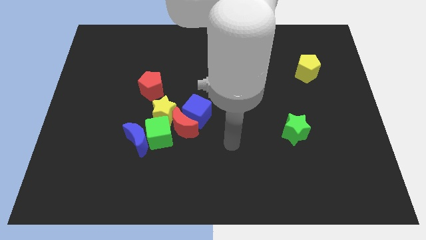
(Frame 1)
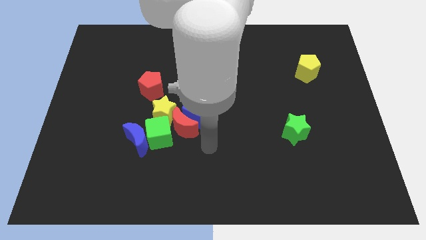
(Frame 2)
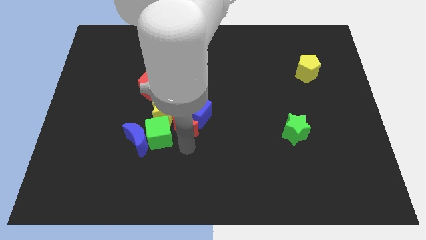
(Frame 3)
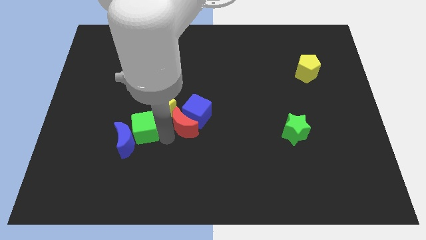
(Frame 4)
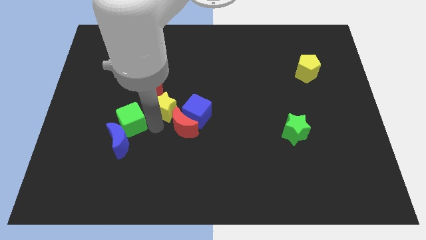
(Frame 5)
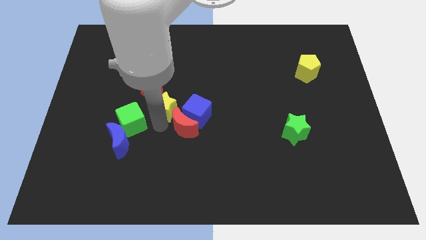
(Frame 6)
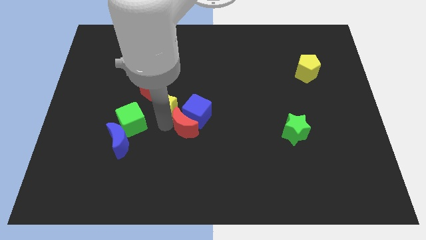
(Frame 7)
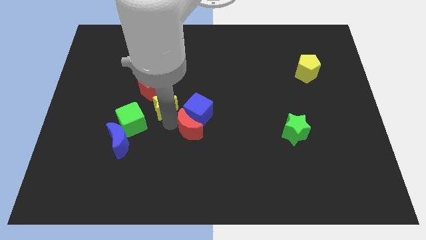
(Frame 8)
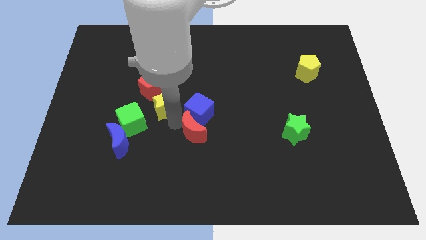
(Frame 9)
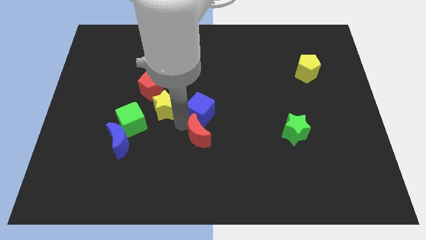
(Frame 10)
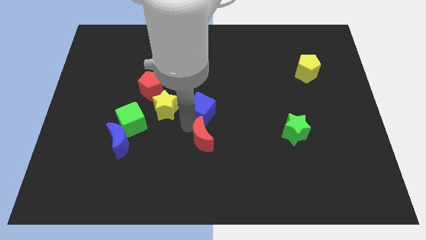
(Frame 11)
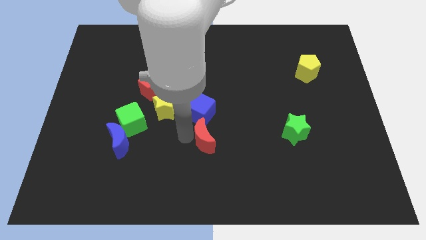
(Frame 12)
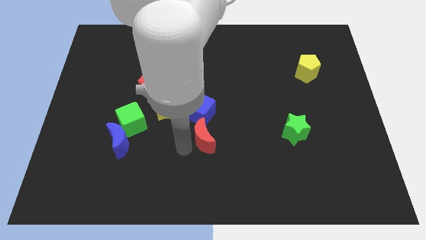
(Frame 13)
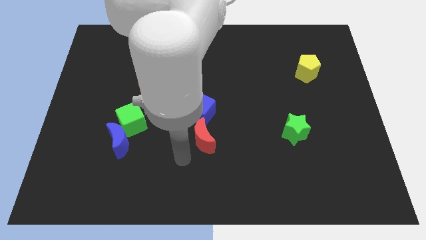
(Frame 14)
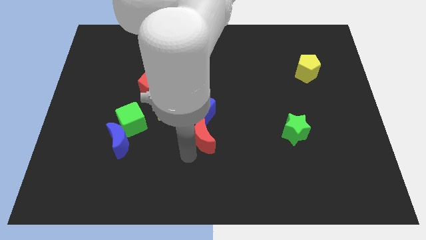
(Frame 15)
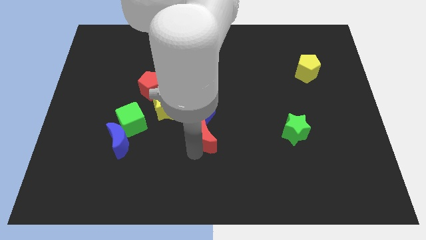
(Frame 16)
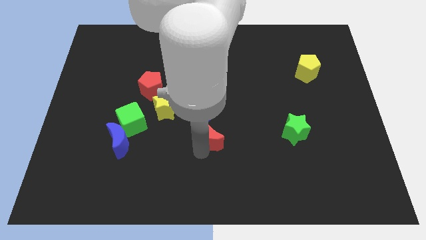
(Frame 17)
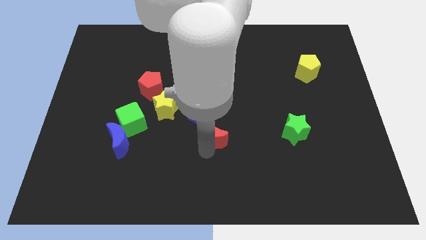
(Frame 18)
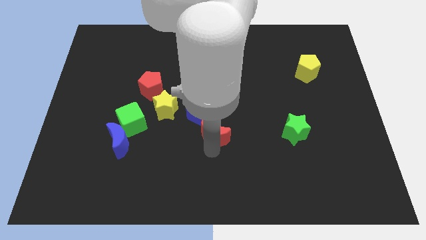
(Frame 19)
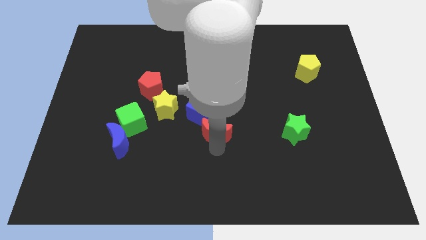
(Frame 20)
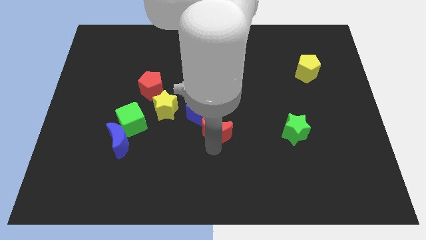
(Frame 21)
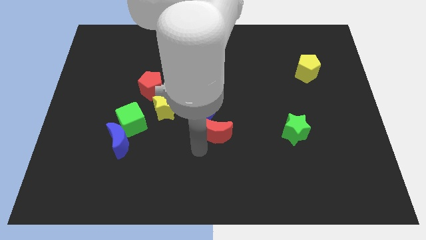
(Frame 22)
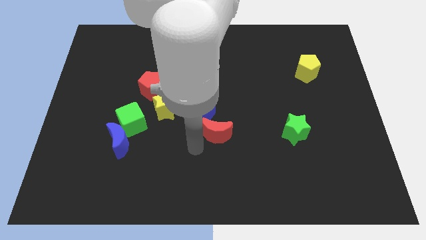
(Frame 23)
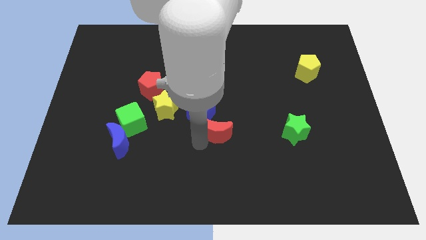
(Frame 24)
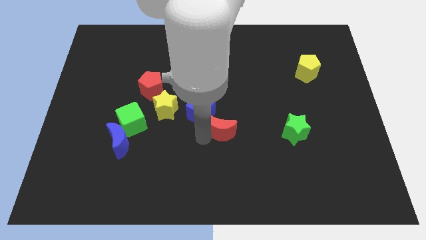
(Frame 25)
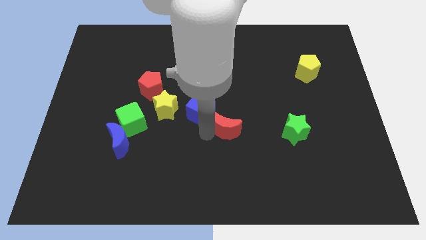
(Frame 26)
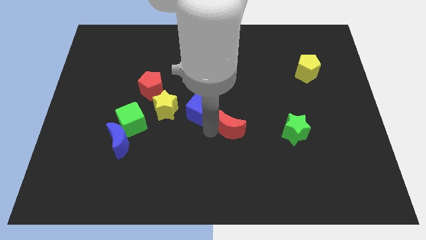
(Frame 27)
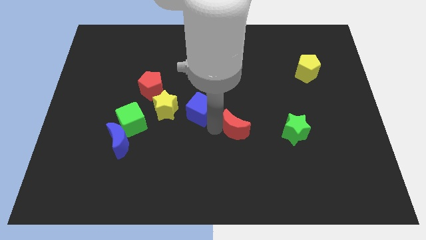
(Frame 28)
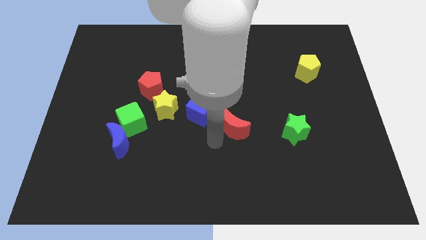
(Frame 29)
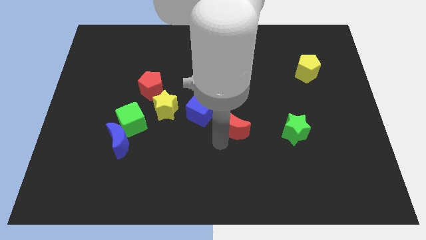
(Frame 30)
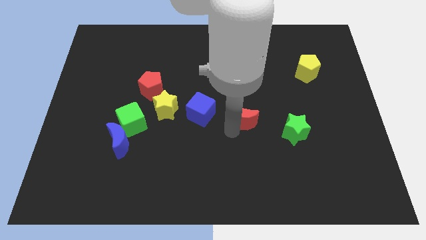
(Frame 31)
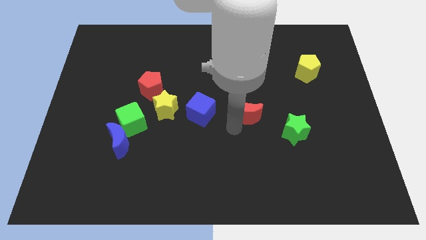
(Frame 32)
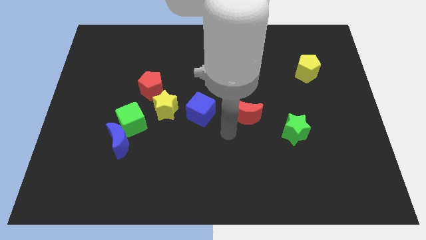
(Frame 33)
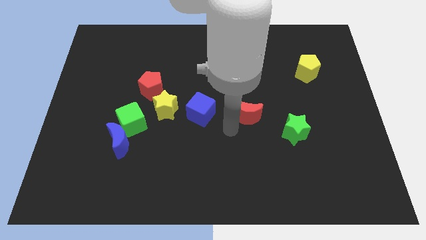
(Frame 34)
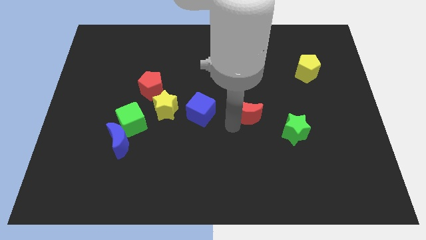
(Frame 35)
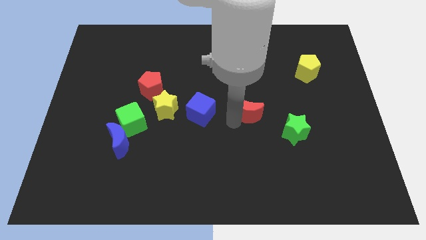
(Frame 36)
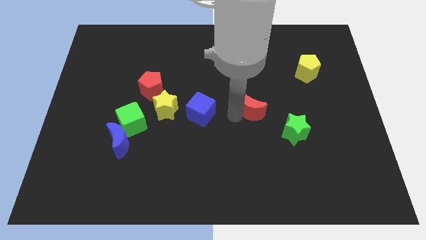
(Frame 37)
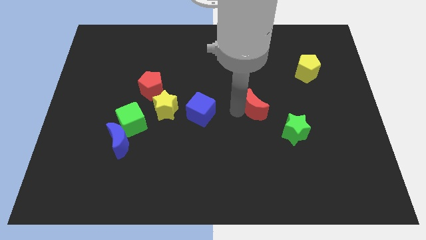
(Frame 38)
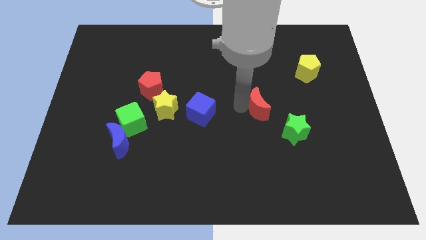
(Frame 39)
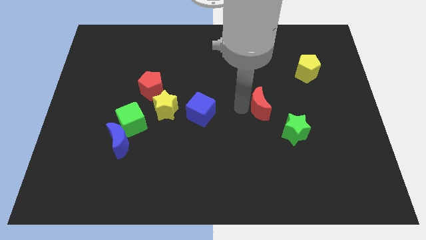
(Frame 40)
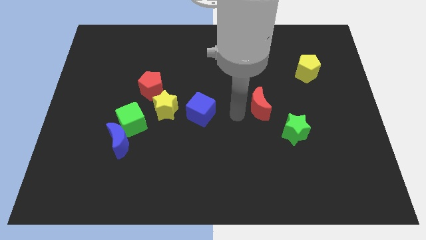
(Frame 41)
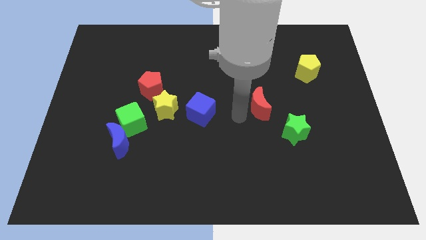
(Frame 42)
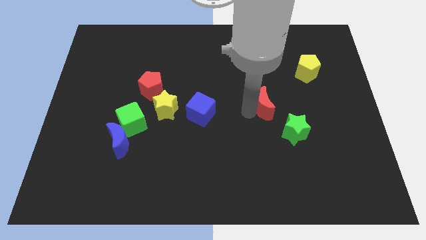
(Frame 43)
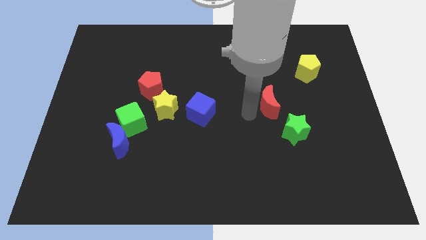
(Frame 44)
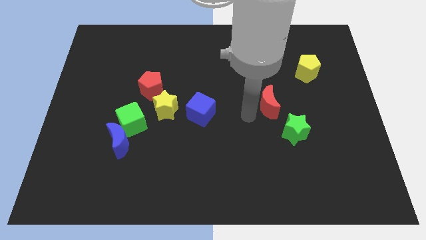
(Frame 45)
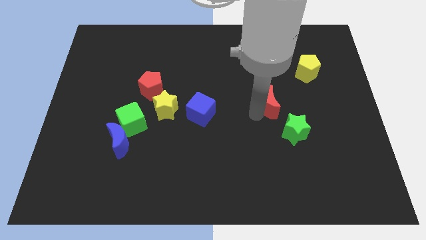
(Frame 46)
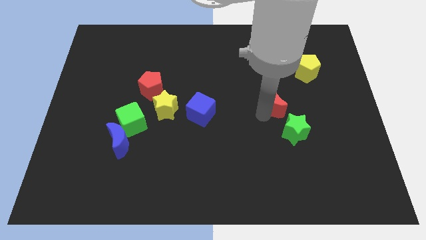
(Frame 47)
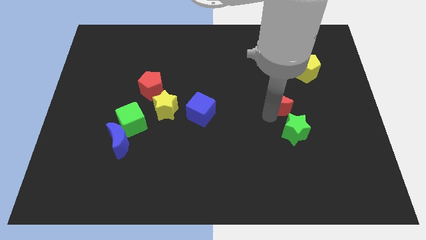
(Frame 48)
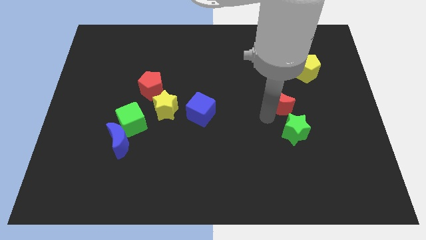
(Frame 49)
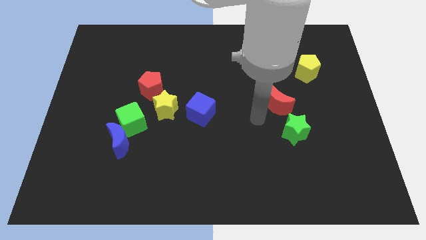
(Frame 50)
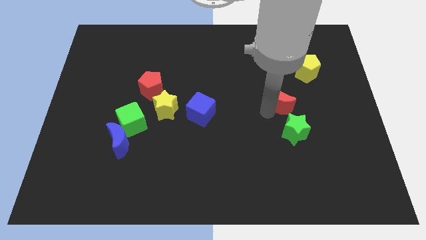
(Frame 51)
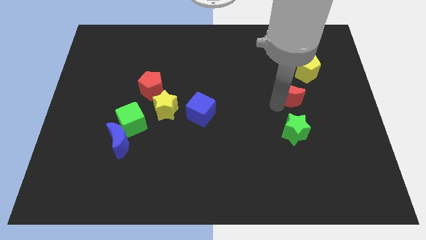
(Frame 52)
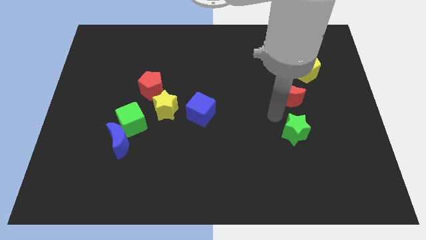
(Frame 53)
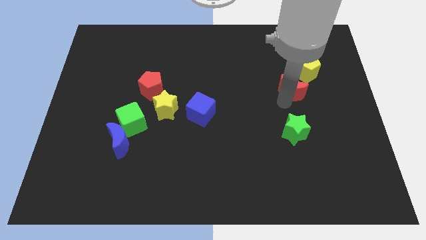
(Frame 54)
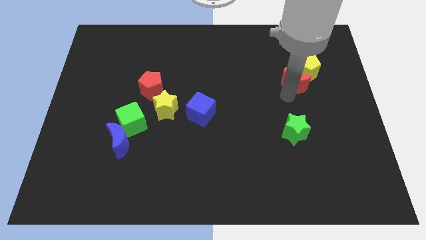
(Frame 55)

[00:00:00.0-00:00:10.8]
put the red moon to the yellow pentagon

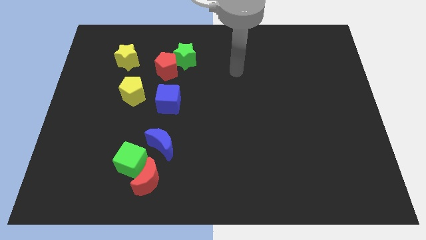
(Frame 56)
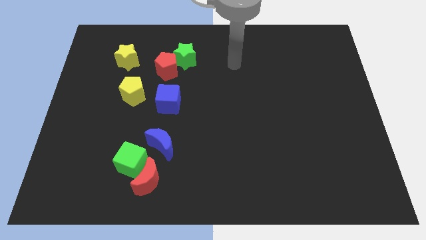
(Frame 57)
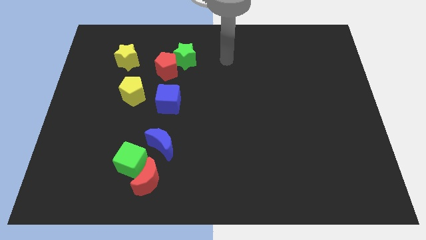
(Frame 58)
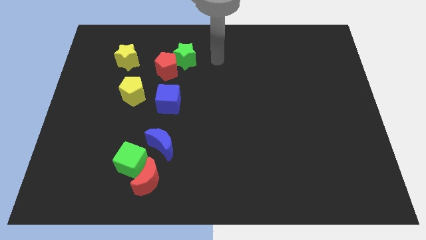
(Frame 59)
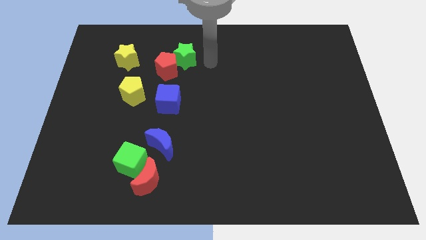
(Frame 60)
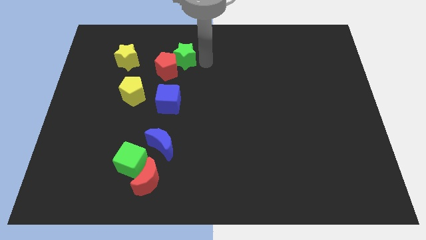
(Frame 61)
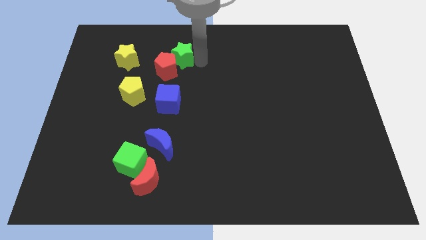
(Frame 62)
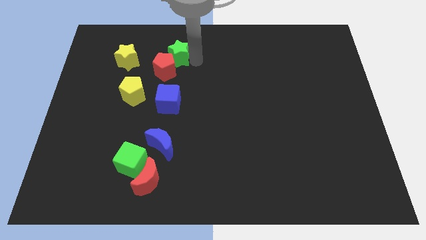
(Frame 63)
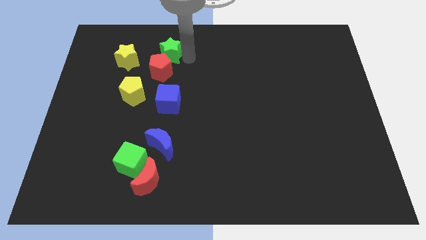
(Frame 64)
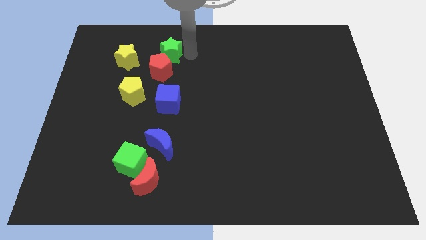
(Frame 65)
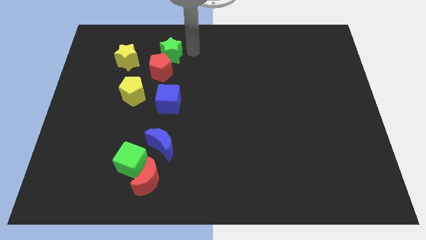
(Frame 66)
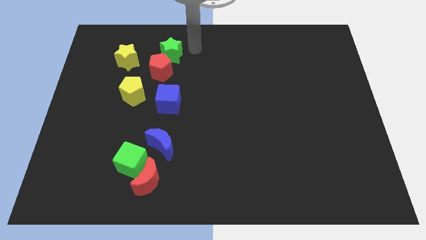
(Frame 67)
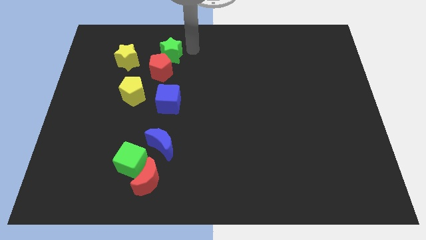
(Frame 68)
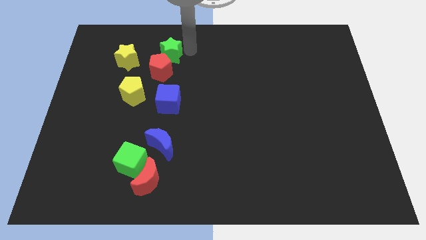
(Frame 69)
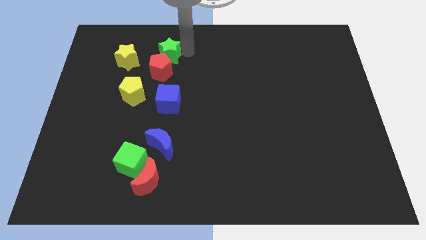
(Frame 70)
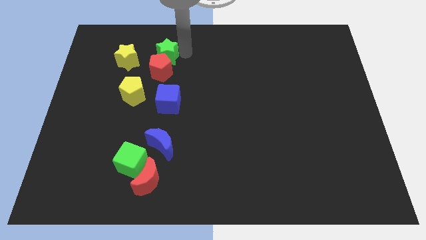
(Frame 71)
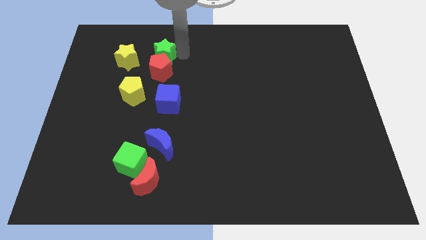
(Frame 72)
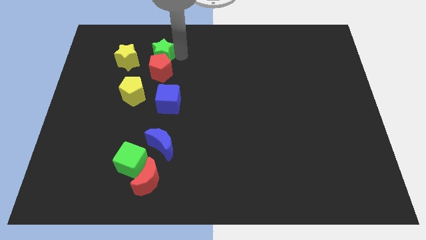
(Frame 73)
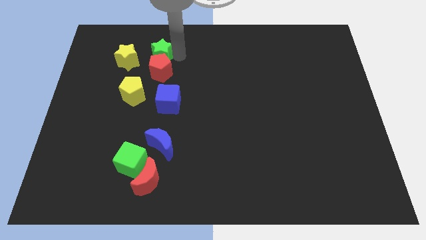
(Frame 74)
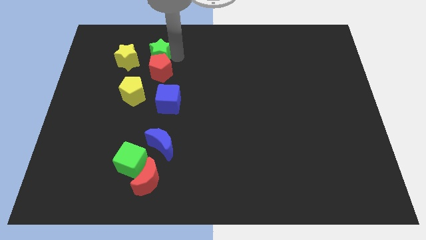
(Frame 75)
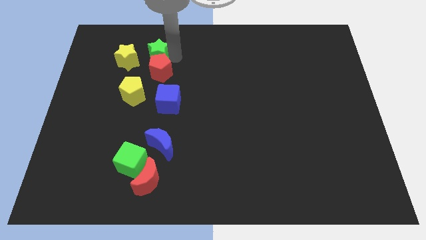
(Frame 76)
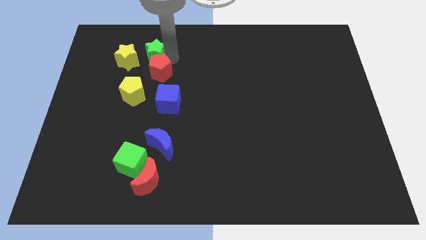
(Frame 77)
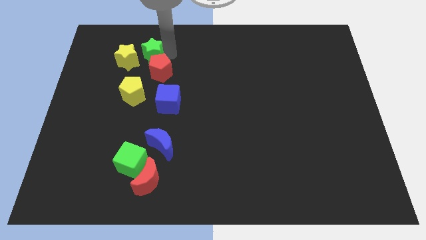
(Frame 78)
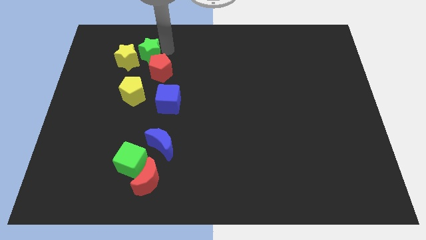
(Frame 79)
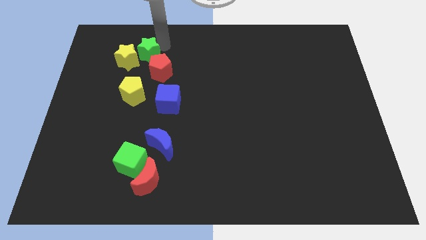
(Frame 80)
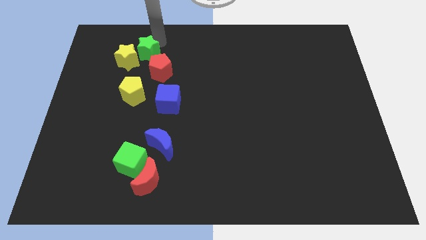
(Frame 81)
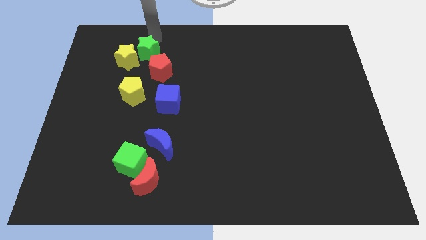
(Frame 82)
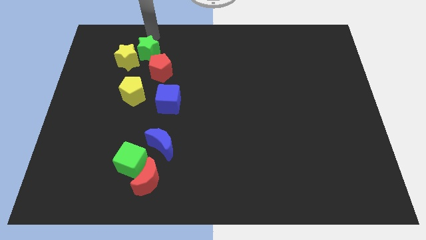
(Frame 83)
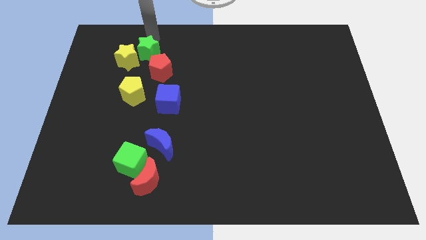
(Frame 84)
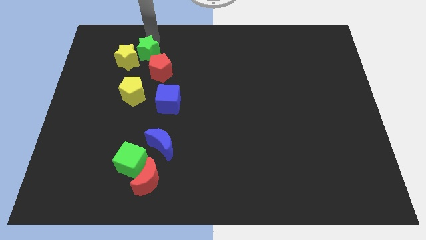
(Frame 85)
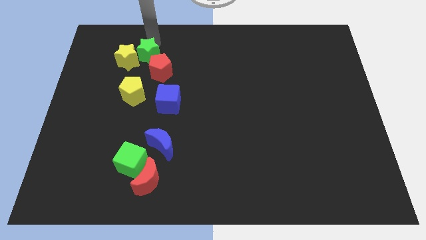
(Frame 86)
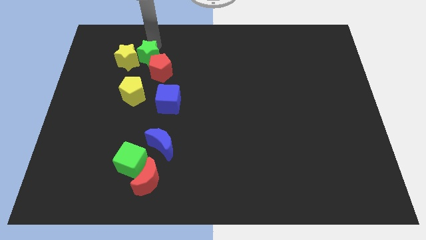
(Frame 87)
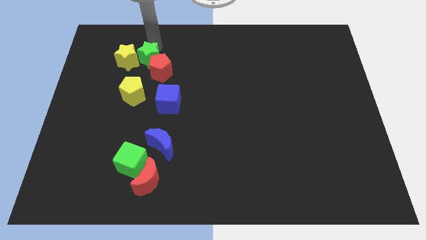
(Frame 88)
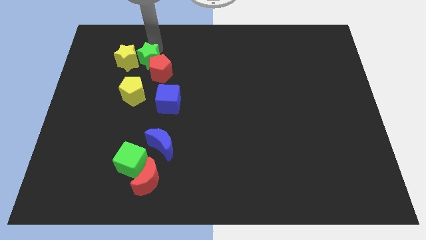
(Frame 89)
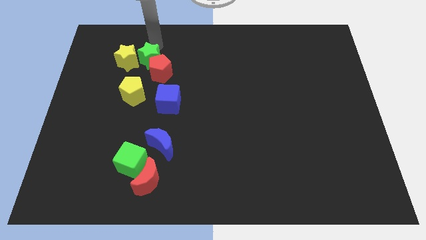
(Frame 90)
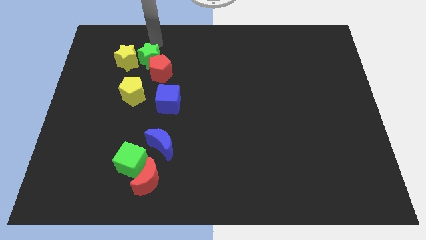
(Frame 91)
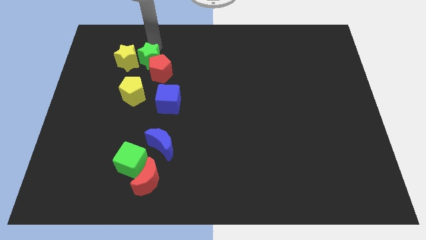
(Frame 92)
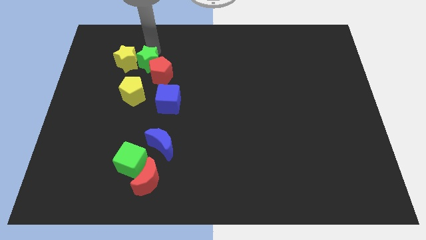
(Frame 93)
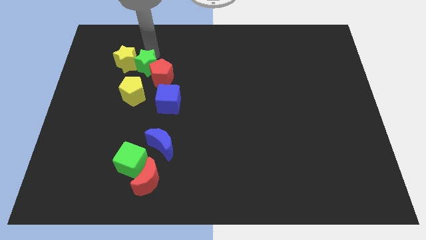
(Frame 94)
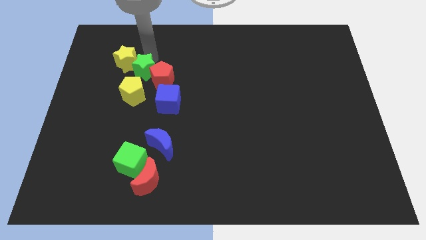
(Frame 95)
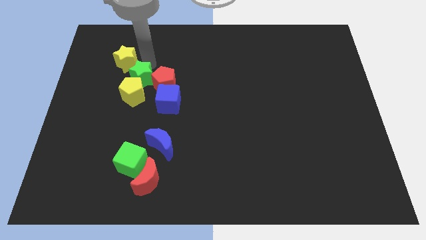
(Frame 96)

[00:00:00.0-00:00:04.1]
move the green star to the yellow pentagon
